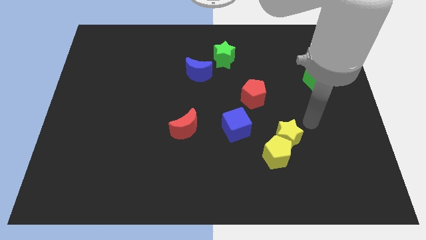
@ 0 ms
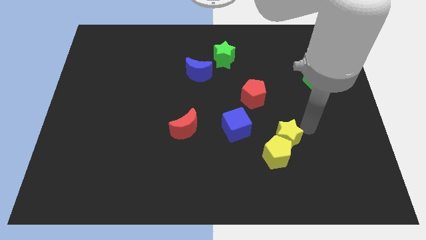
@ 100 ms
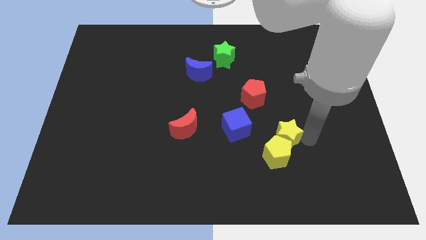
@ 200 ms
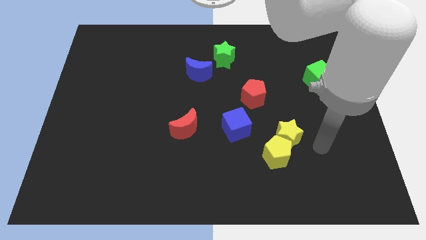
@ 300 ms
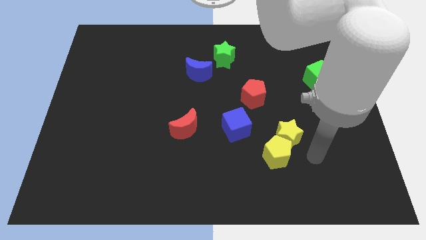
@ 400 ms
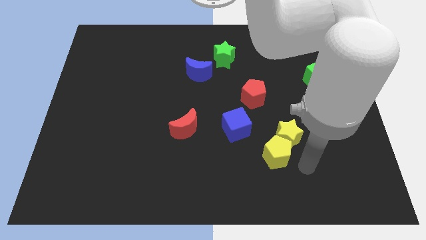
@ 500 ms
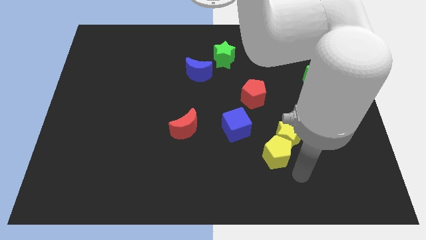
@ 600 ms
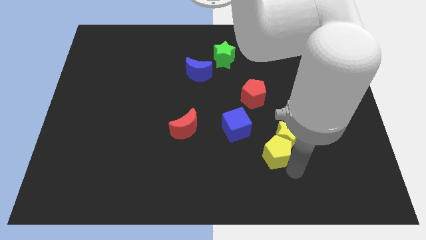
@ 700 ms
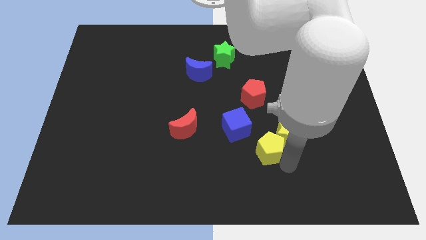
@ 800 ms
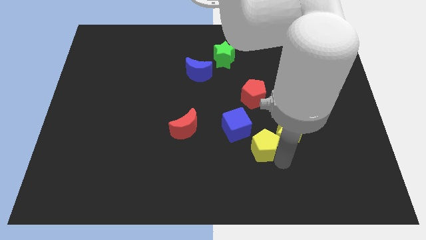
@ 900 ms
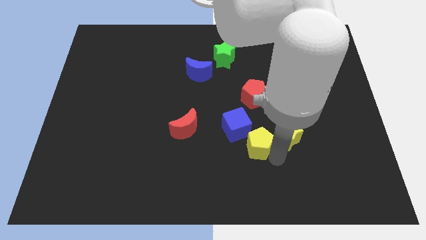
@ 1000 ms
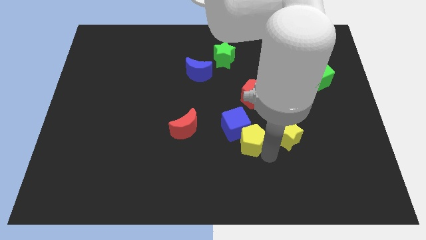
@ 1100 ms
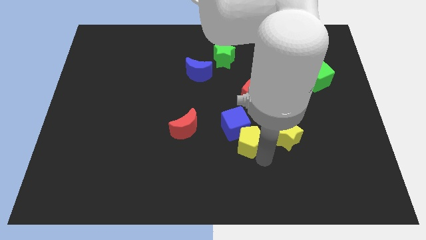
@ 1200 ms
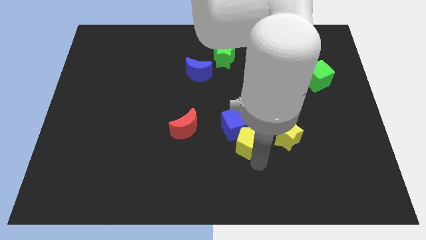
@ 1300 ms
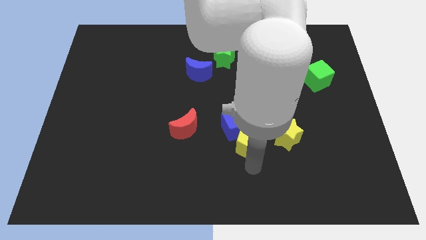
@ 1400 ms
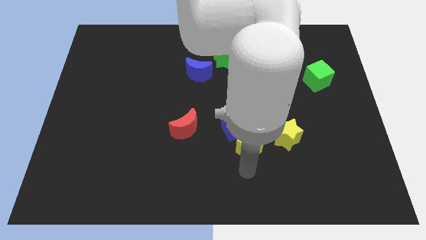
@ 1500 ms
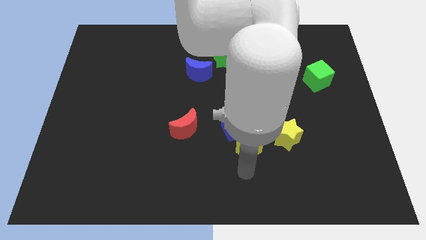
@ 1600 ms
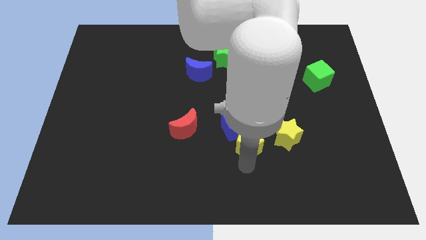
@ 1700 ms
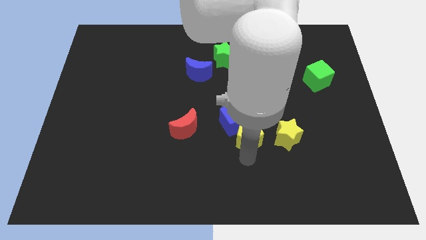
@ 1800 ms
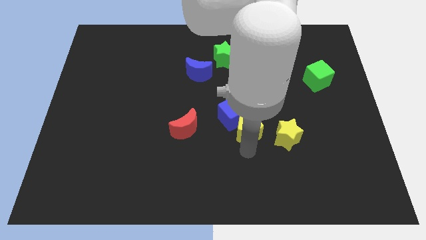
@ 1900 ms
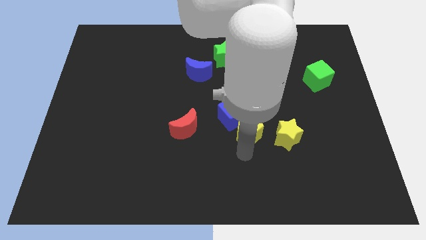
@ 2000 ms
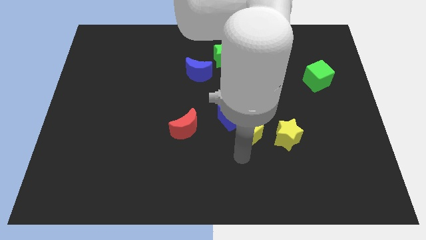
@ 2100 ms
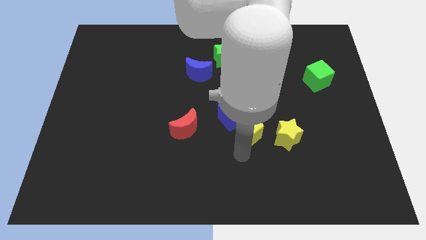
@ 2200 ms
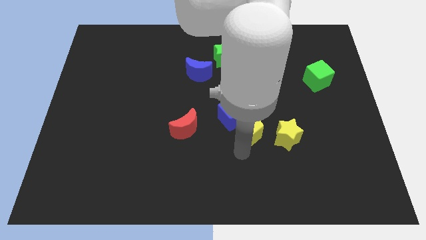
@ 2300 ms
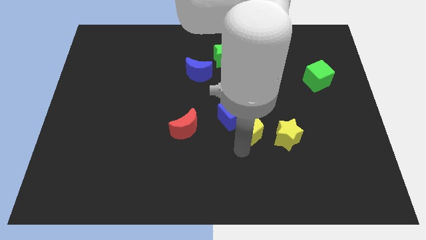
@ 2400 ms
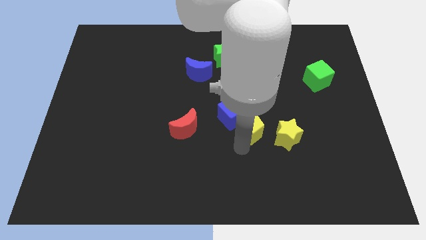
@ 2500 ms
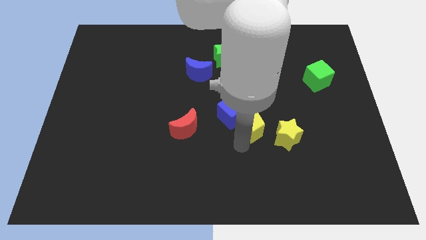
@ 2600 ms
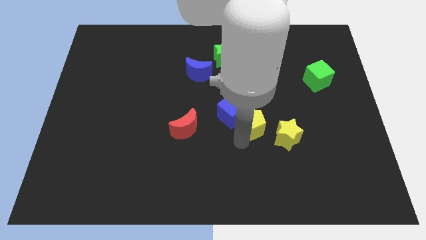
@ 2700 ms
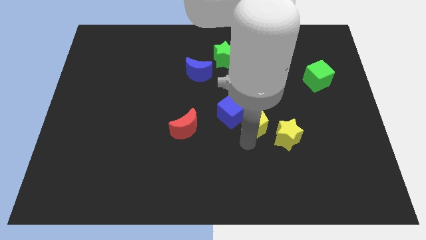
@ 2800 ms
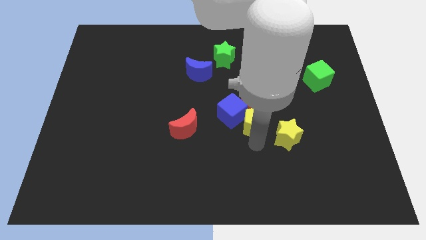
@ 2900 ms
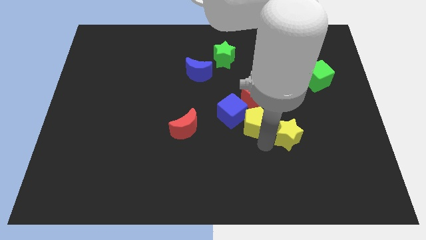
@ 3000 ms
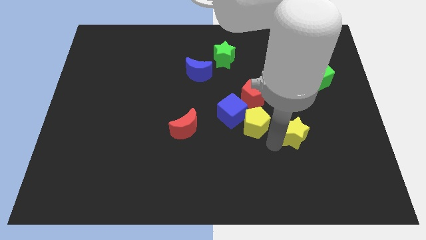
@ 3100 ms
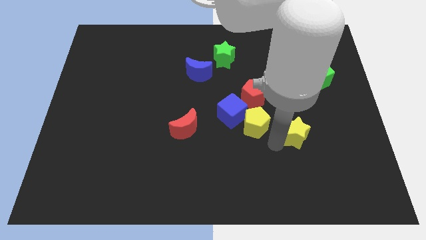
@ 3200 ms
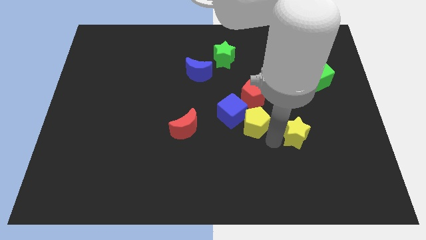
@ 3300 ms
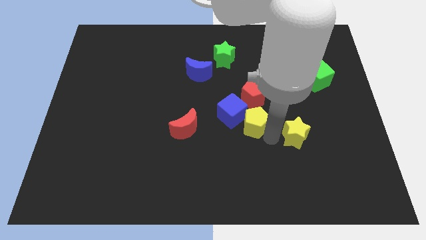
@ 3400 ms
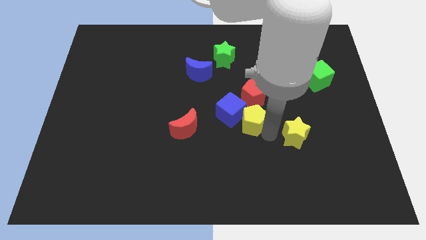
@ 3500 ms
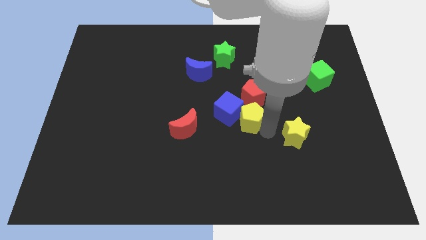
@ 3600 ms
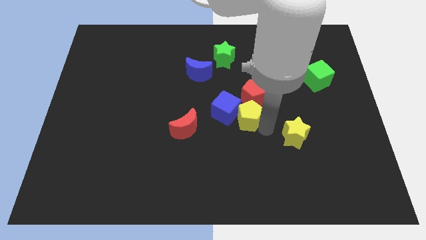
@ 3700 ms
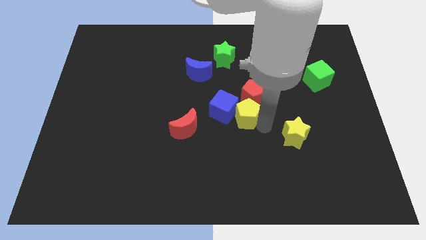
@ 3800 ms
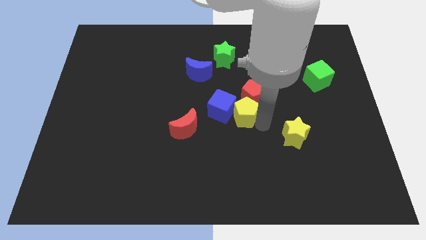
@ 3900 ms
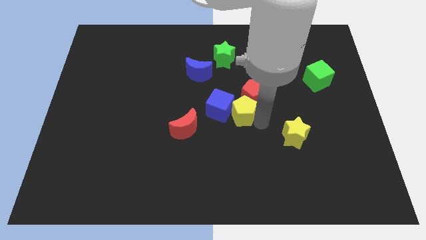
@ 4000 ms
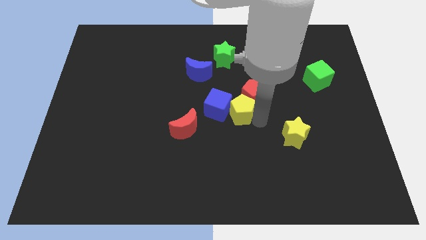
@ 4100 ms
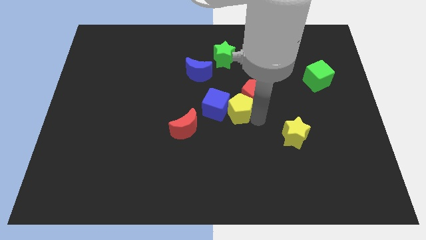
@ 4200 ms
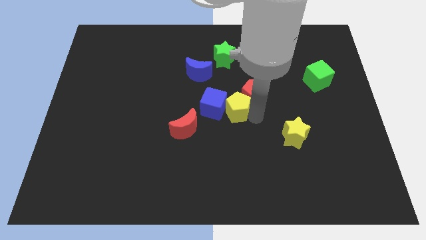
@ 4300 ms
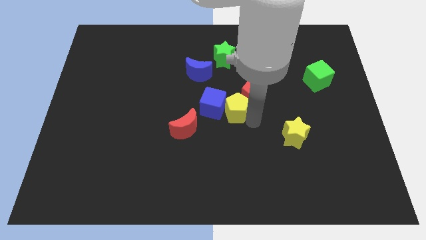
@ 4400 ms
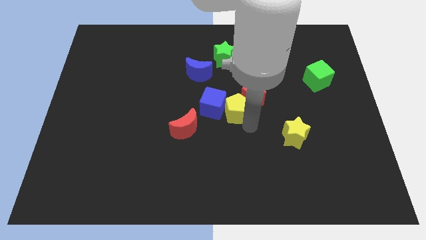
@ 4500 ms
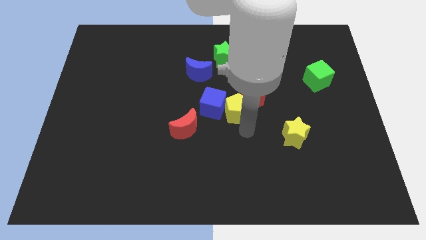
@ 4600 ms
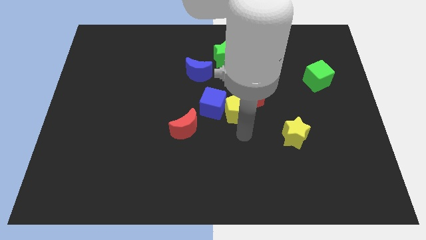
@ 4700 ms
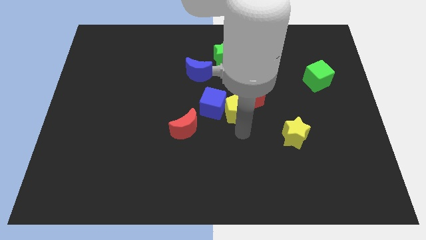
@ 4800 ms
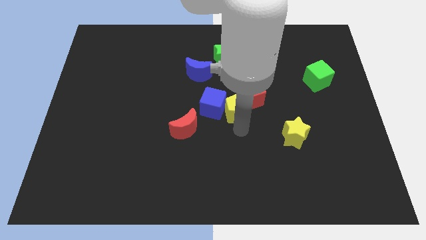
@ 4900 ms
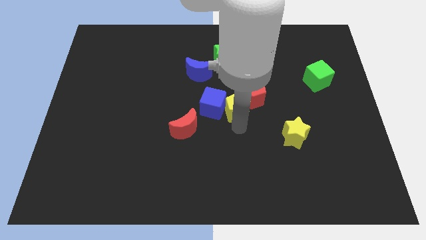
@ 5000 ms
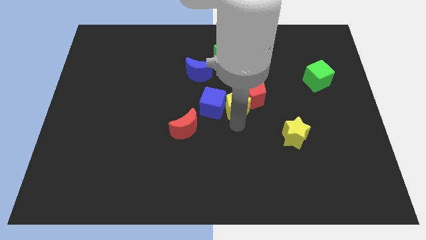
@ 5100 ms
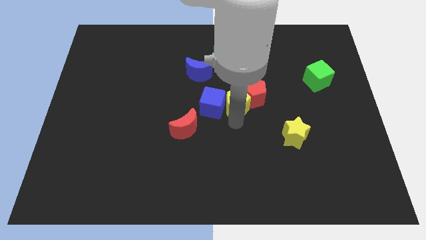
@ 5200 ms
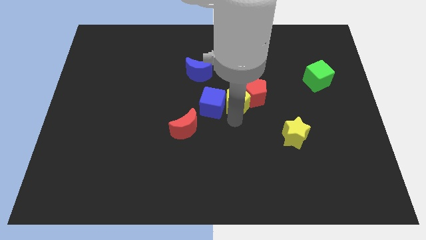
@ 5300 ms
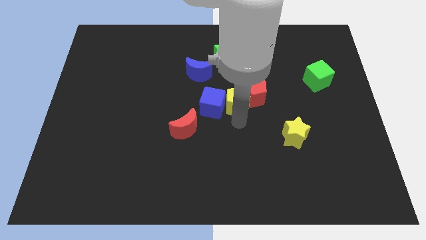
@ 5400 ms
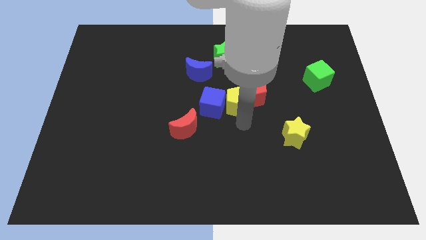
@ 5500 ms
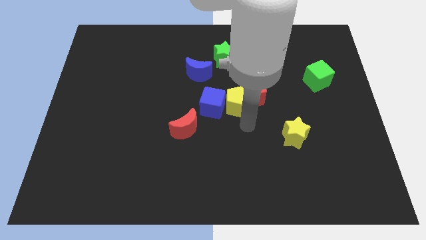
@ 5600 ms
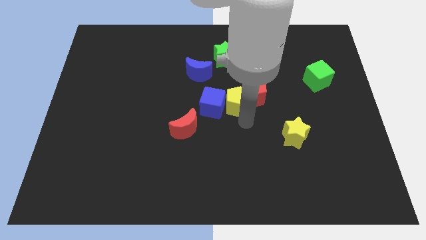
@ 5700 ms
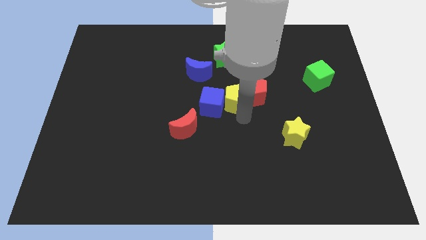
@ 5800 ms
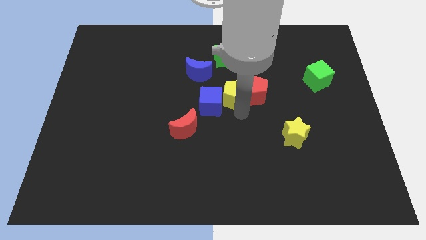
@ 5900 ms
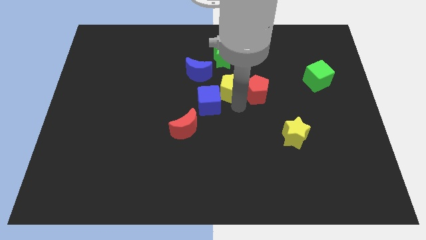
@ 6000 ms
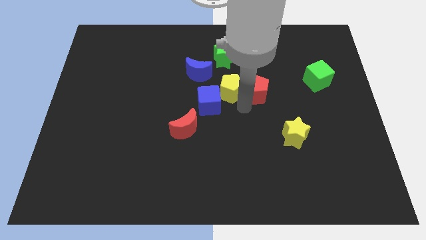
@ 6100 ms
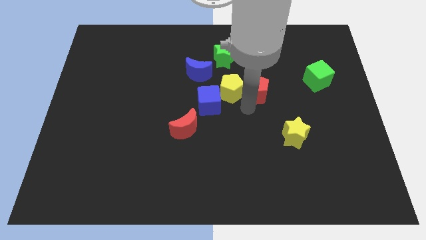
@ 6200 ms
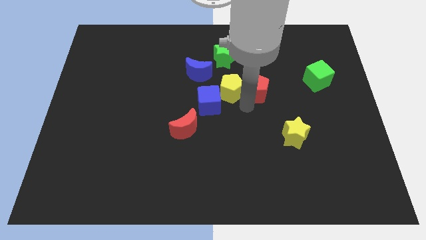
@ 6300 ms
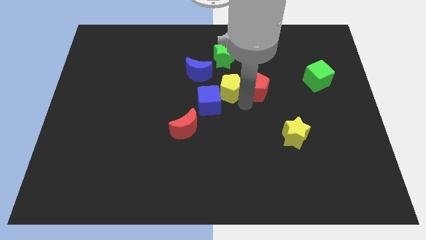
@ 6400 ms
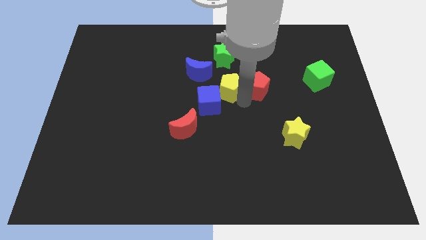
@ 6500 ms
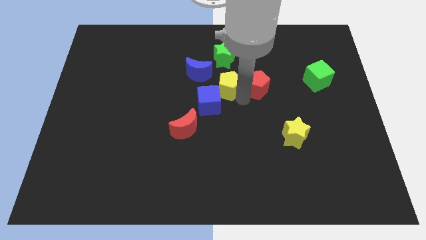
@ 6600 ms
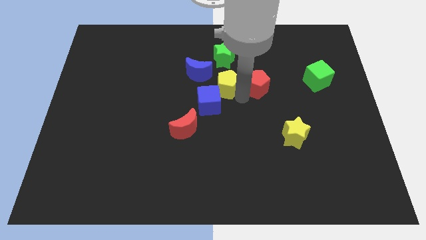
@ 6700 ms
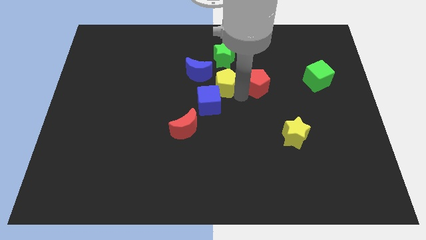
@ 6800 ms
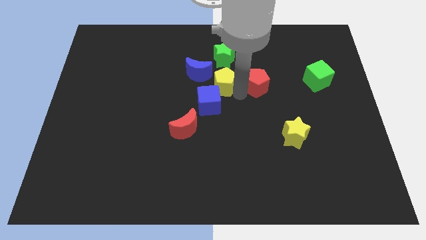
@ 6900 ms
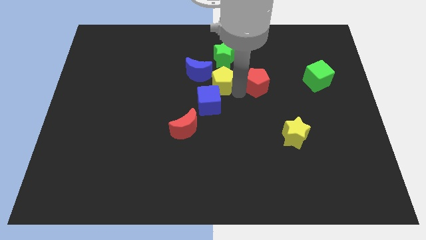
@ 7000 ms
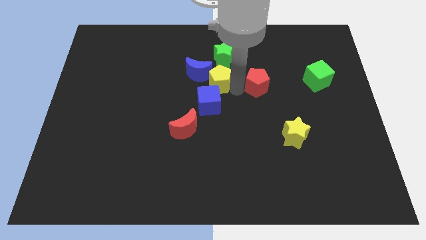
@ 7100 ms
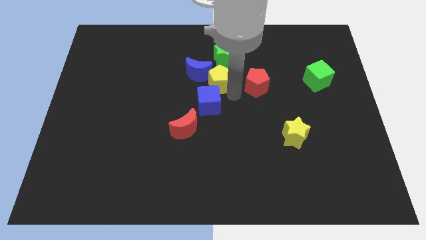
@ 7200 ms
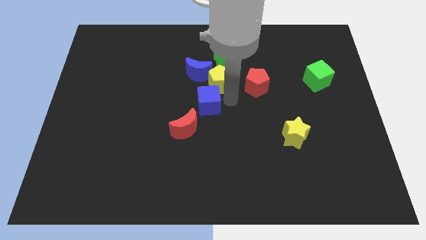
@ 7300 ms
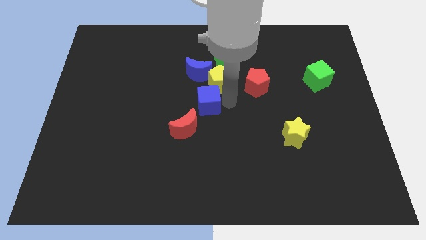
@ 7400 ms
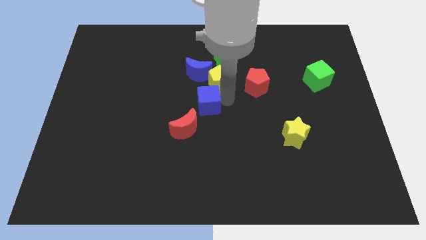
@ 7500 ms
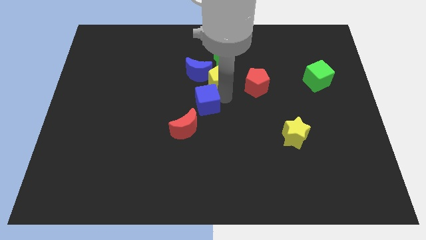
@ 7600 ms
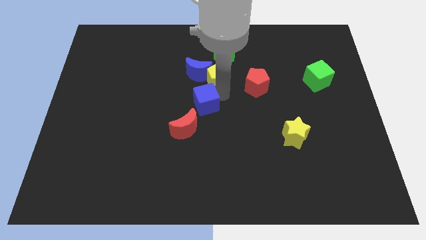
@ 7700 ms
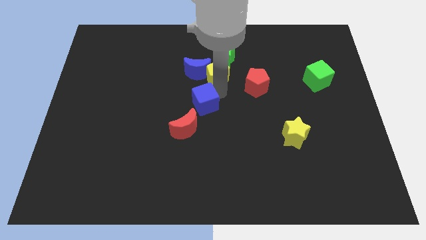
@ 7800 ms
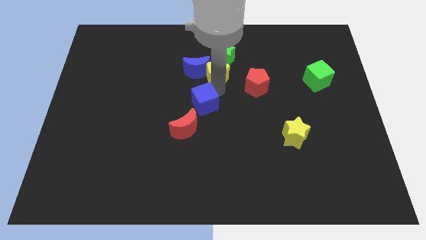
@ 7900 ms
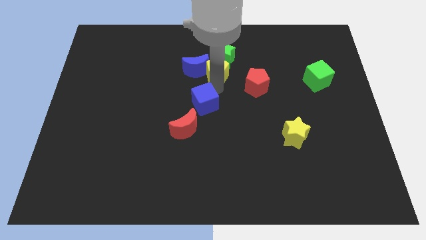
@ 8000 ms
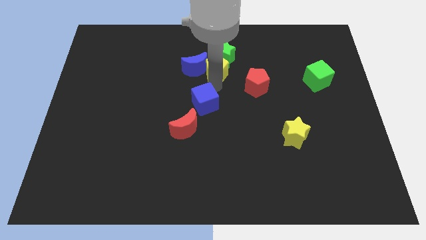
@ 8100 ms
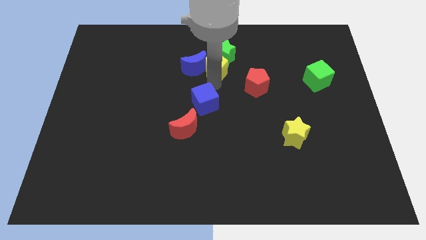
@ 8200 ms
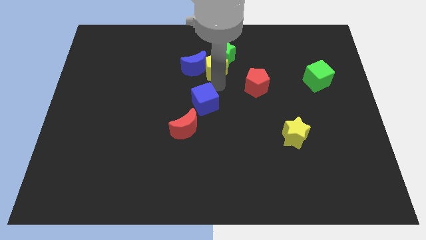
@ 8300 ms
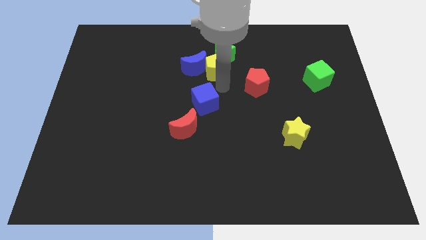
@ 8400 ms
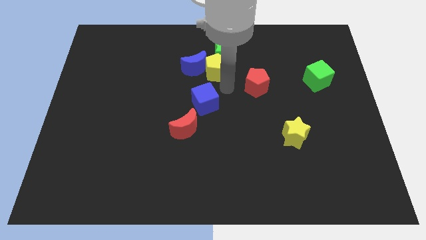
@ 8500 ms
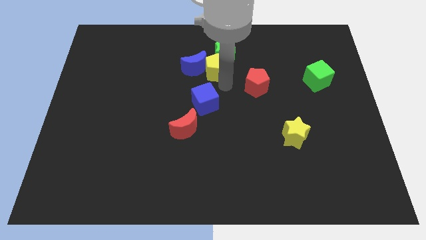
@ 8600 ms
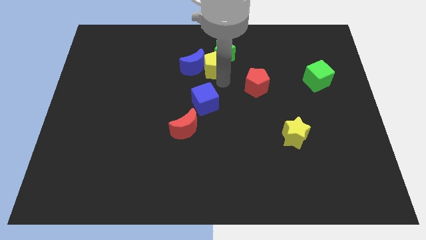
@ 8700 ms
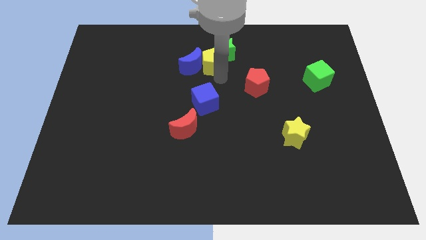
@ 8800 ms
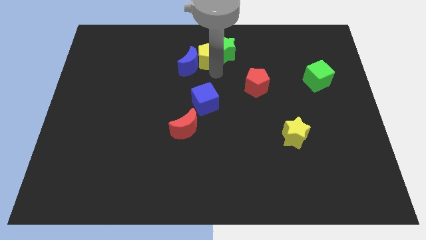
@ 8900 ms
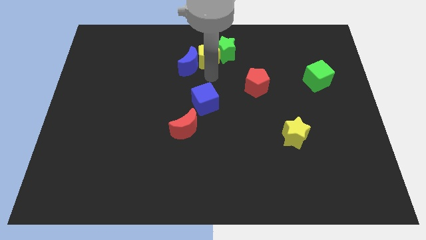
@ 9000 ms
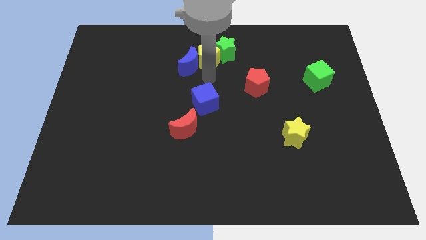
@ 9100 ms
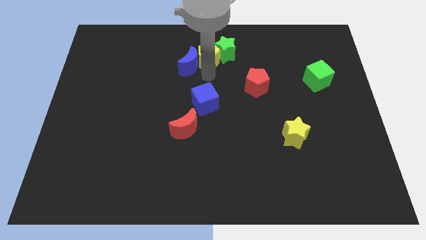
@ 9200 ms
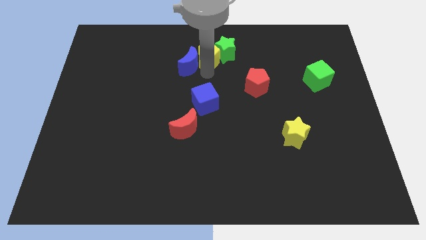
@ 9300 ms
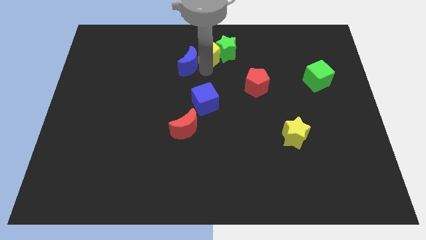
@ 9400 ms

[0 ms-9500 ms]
push the yellow pentagon to the towards your base
